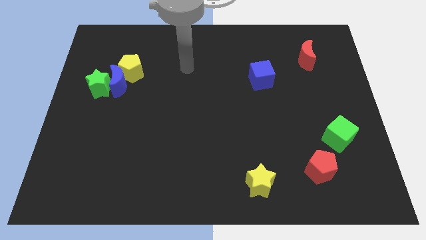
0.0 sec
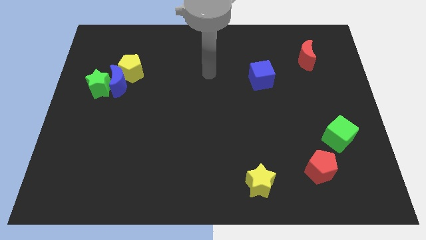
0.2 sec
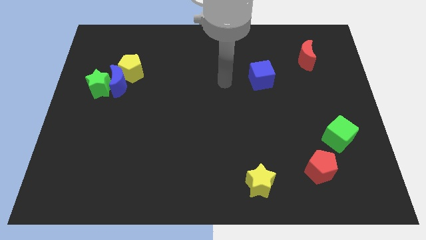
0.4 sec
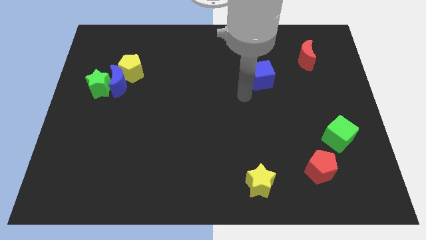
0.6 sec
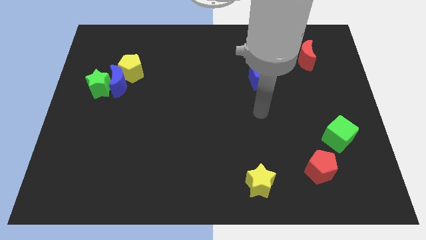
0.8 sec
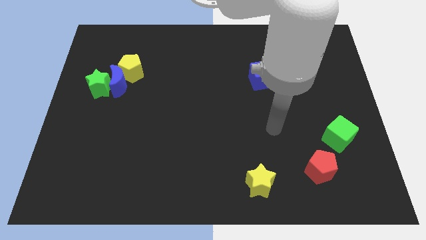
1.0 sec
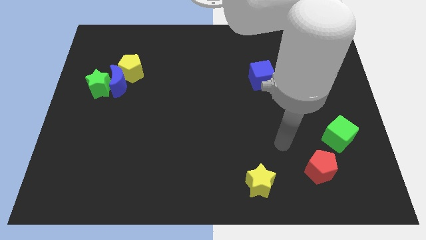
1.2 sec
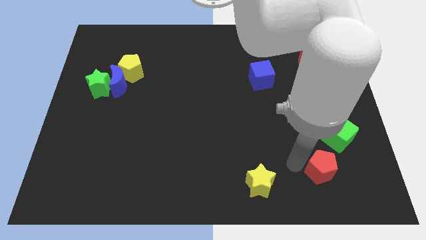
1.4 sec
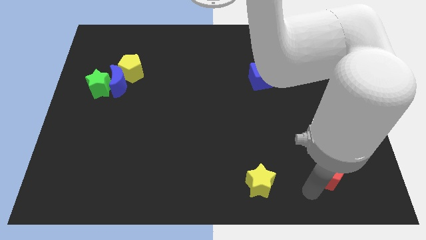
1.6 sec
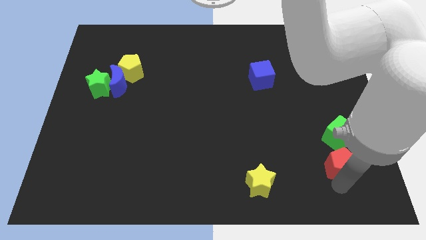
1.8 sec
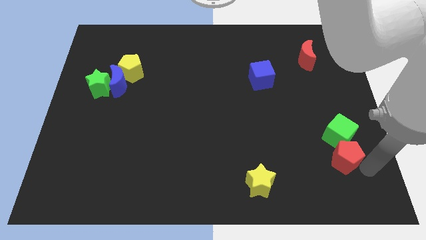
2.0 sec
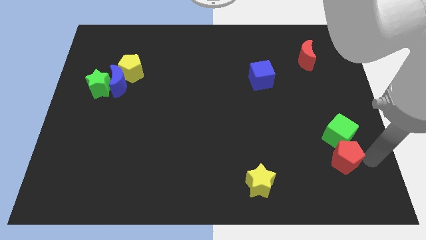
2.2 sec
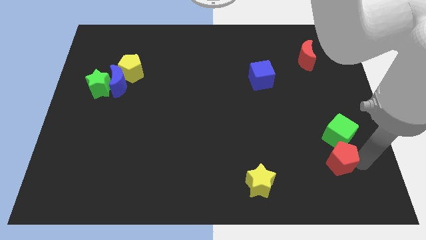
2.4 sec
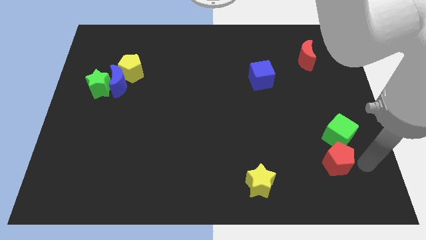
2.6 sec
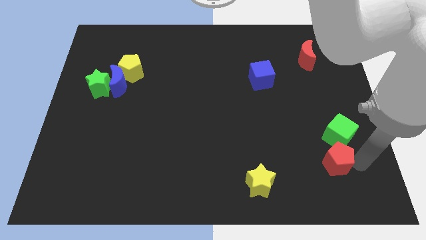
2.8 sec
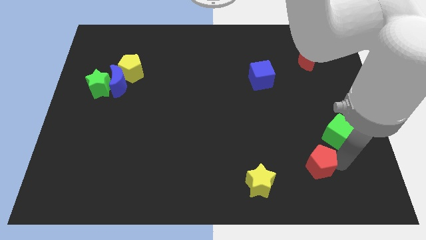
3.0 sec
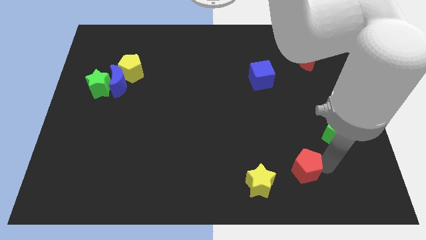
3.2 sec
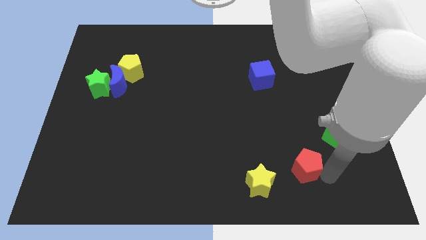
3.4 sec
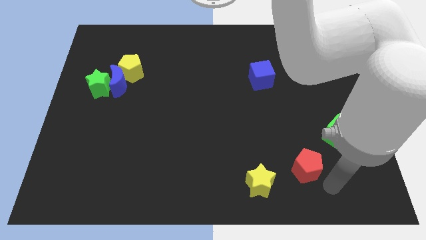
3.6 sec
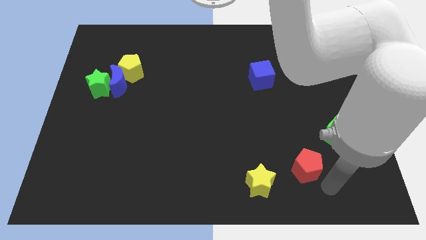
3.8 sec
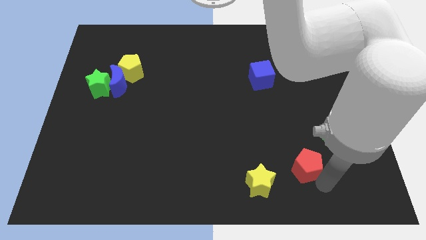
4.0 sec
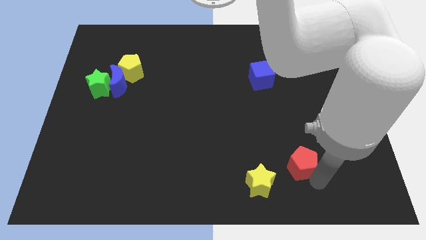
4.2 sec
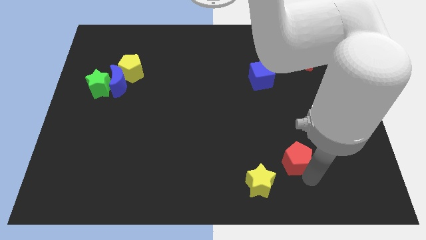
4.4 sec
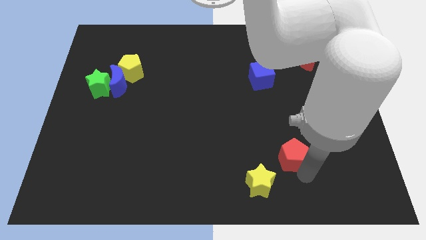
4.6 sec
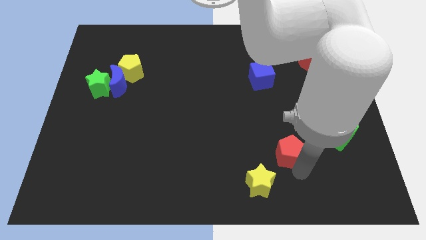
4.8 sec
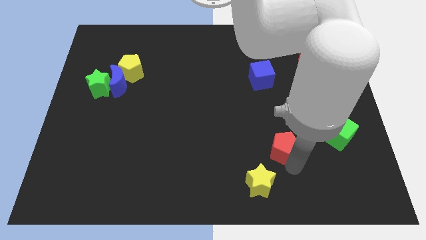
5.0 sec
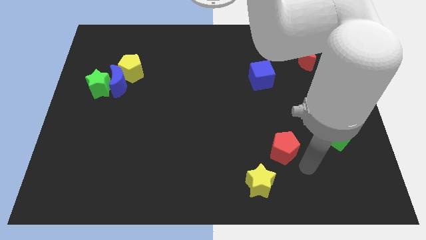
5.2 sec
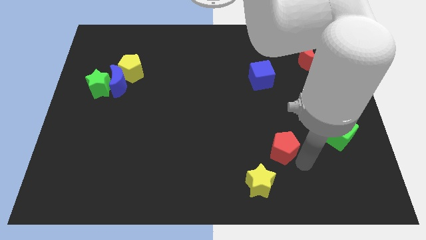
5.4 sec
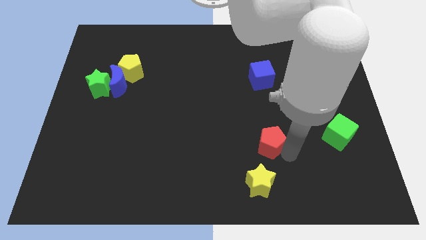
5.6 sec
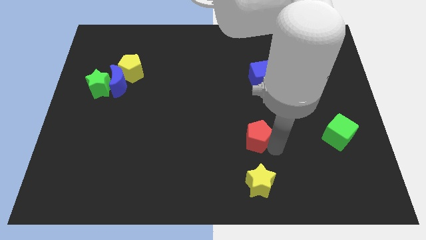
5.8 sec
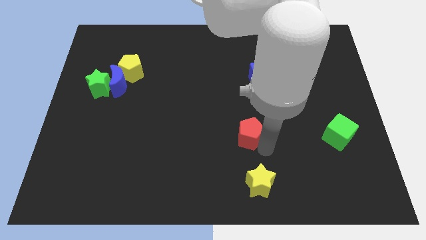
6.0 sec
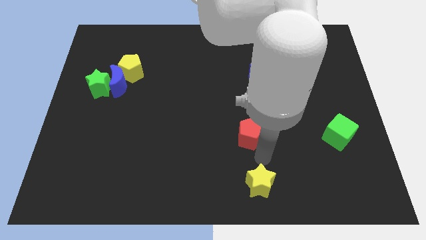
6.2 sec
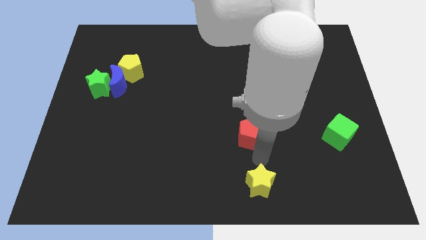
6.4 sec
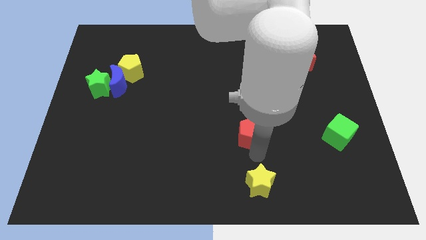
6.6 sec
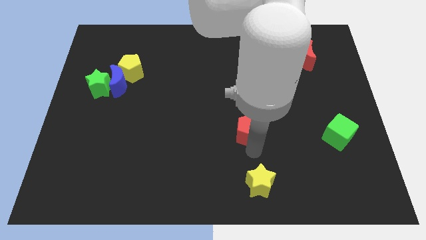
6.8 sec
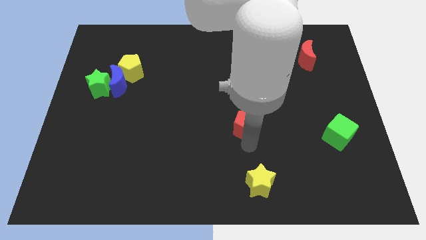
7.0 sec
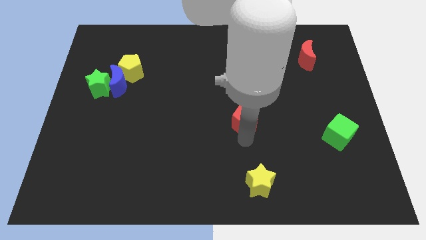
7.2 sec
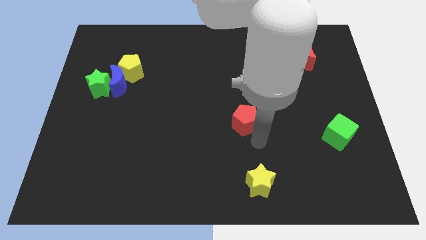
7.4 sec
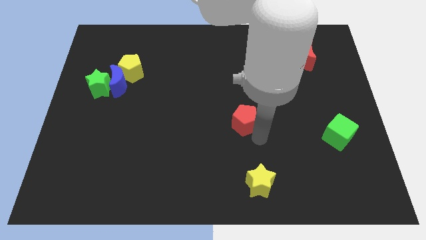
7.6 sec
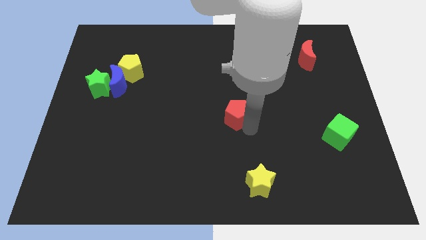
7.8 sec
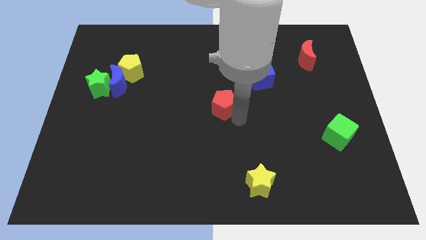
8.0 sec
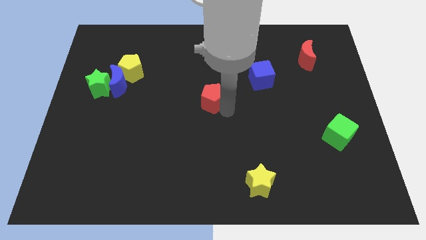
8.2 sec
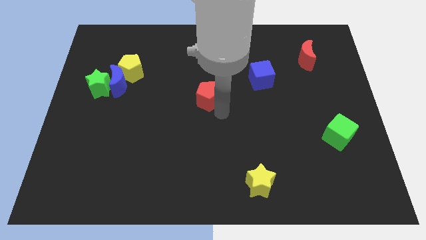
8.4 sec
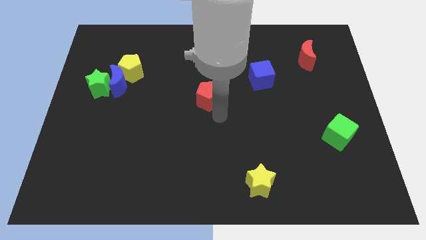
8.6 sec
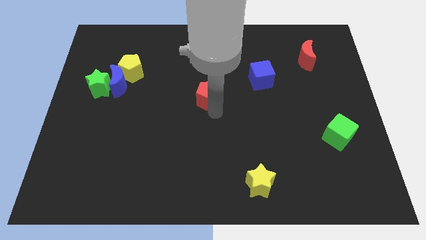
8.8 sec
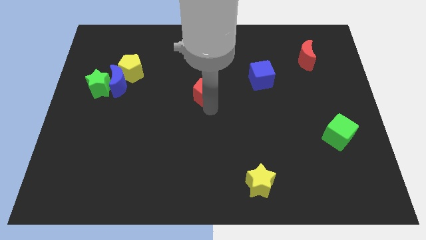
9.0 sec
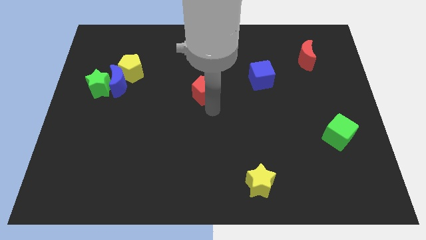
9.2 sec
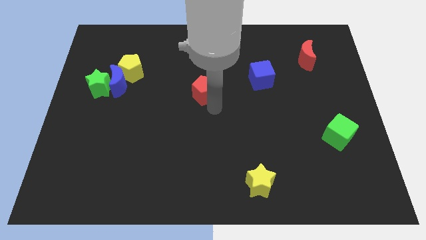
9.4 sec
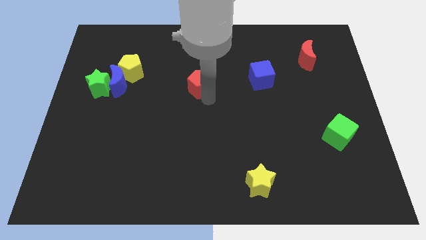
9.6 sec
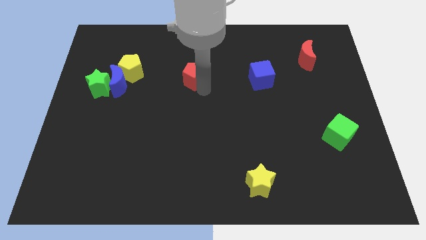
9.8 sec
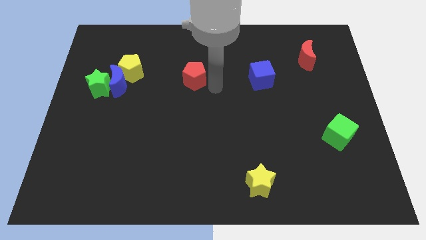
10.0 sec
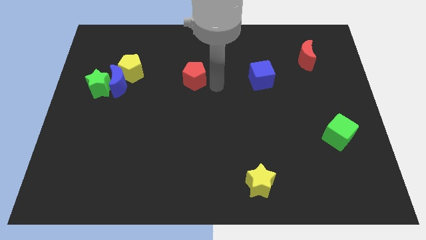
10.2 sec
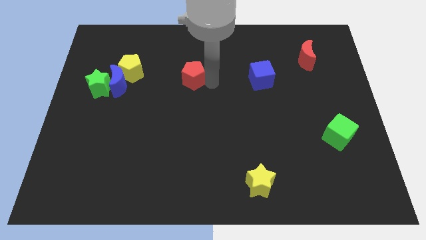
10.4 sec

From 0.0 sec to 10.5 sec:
move the red pentagon right of the yellow pentagon

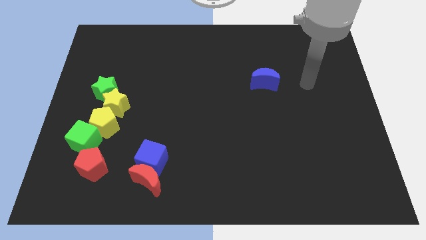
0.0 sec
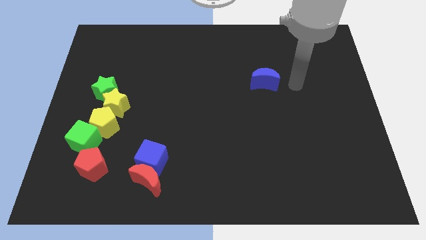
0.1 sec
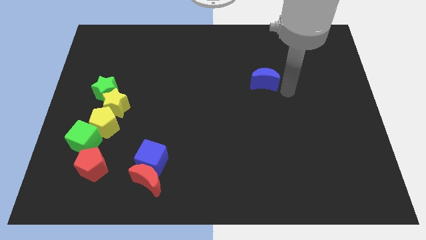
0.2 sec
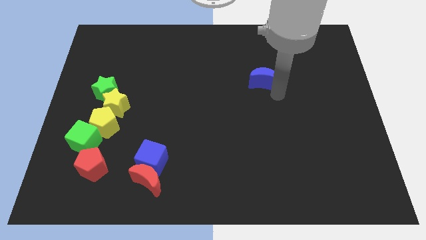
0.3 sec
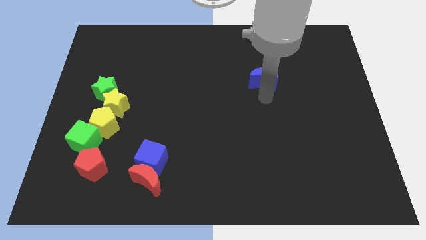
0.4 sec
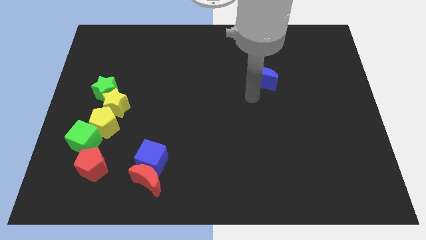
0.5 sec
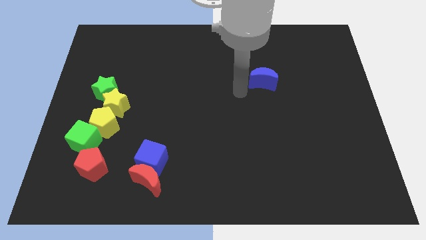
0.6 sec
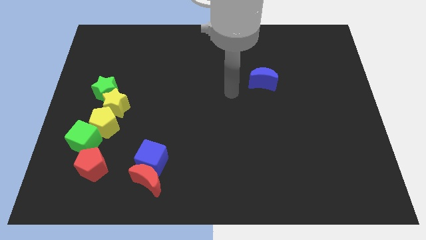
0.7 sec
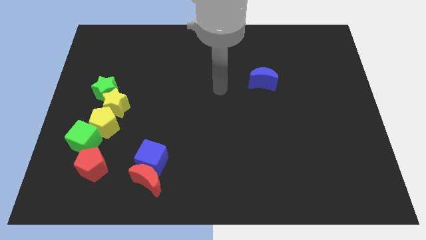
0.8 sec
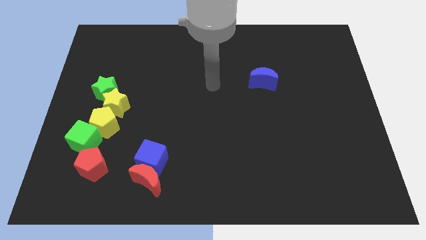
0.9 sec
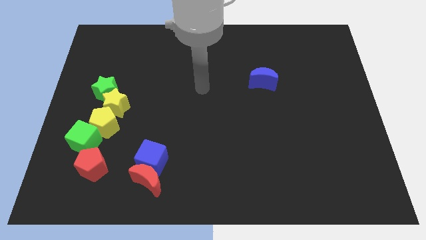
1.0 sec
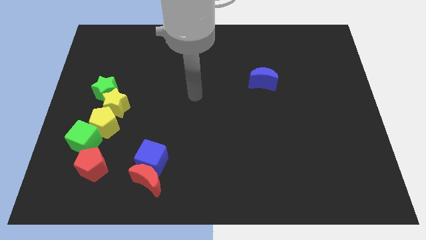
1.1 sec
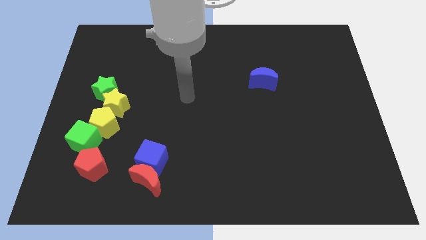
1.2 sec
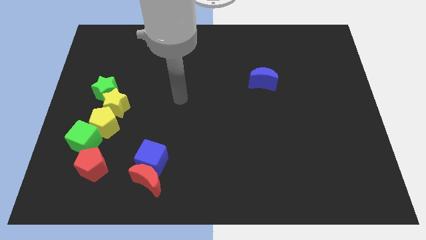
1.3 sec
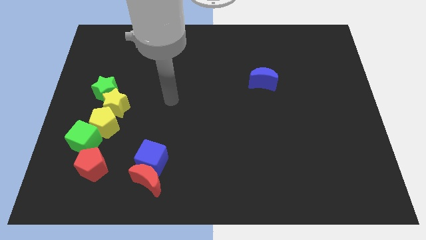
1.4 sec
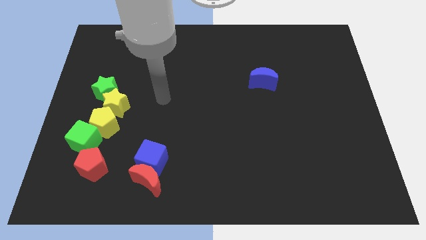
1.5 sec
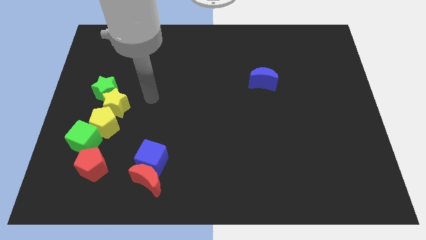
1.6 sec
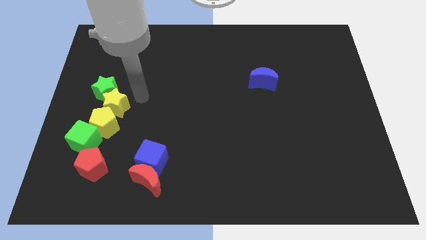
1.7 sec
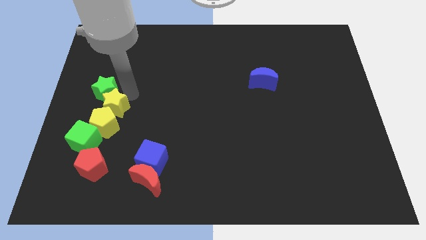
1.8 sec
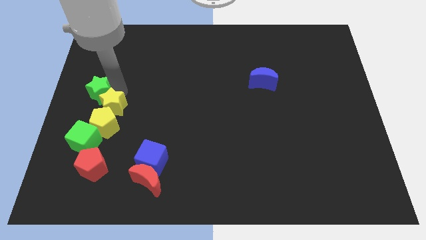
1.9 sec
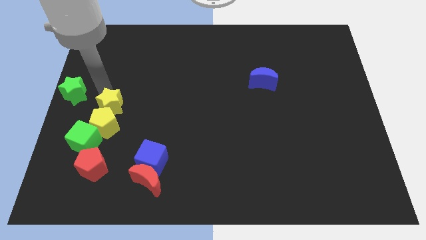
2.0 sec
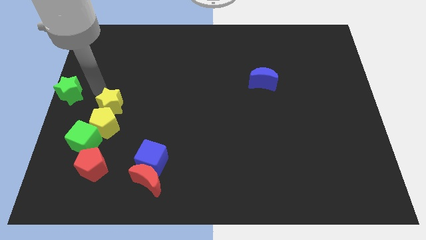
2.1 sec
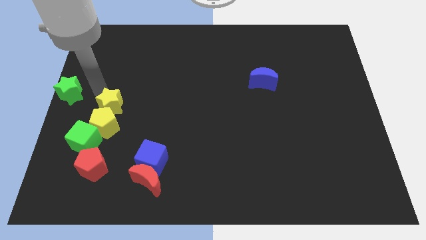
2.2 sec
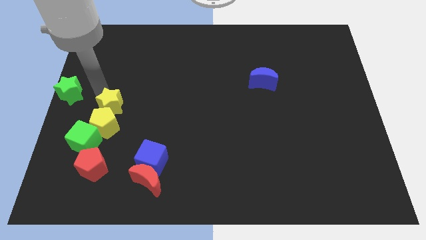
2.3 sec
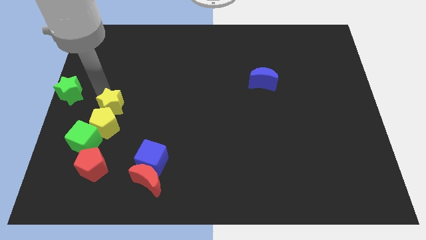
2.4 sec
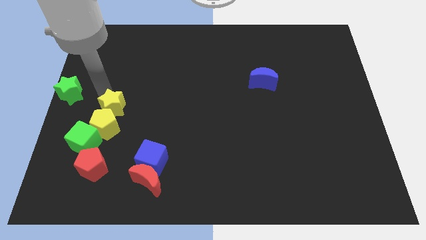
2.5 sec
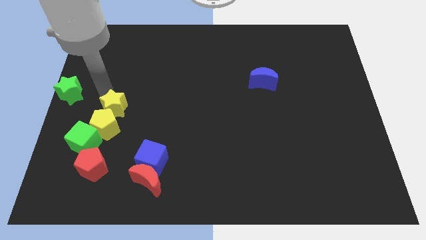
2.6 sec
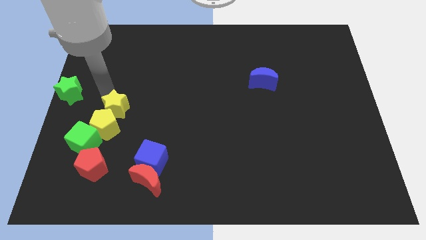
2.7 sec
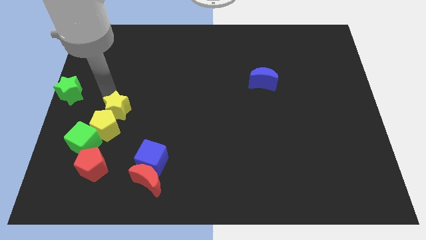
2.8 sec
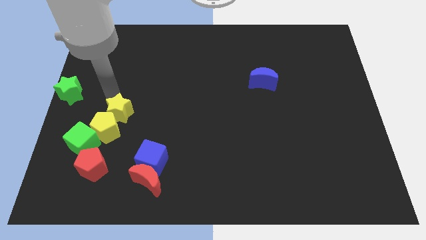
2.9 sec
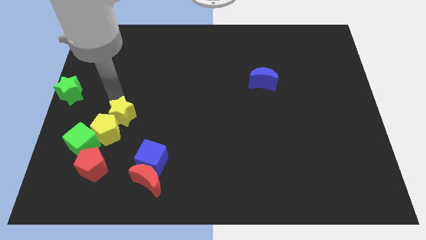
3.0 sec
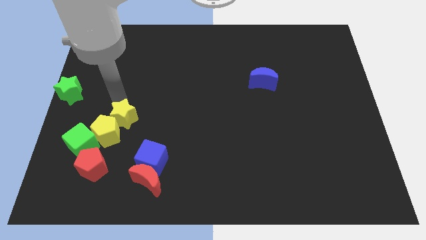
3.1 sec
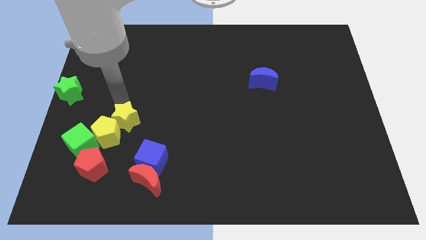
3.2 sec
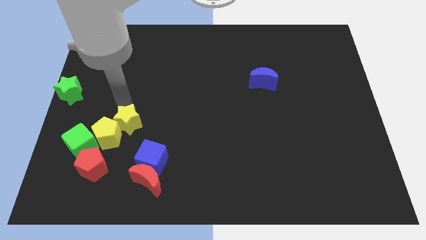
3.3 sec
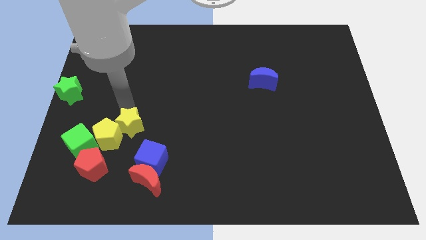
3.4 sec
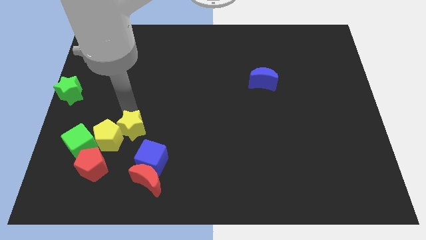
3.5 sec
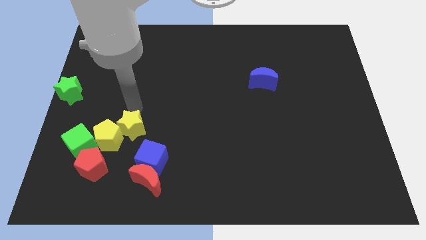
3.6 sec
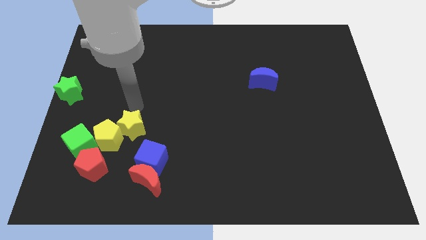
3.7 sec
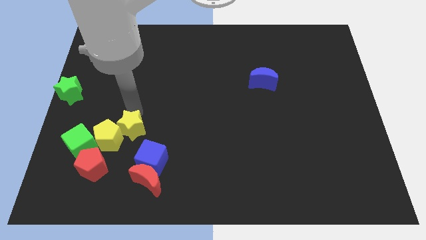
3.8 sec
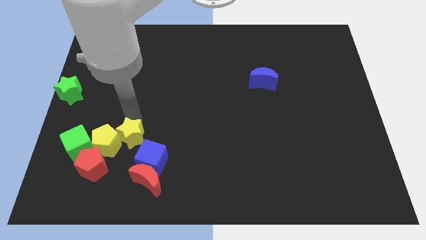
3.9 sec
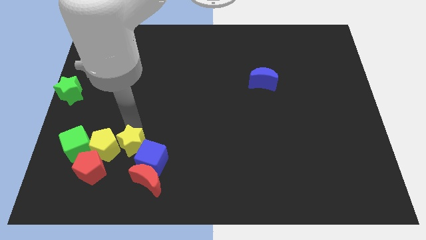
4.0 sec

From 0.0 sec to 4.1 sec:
put the yellow star to the bottom right side of the yellow pentagon
